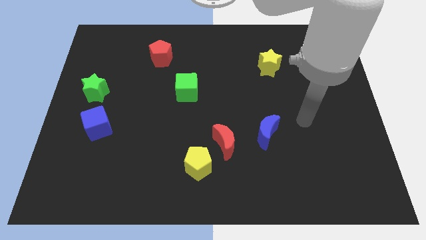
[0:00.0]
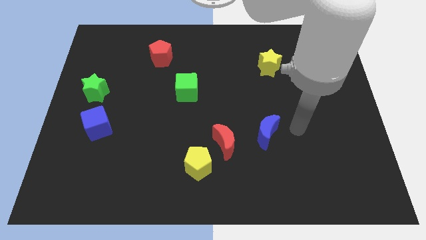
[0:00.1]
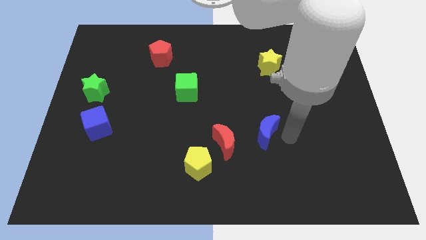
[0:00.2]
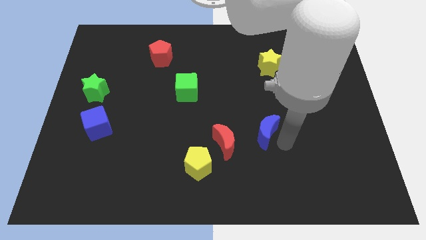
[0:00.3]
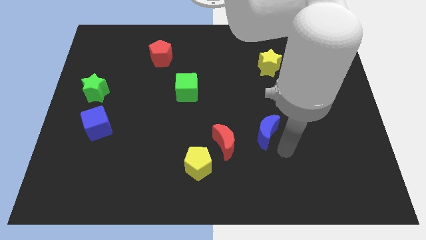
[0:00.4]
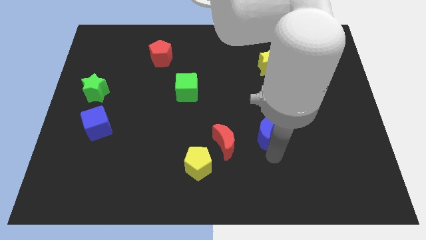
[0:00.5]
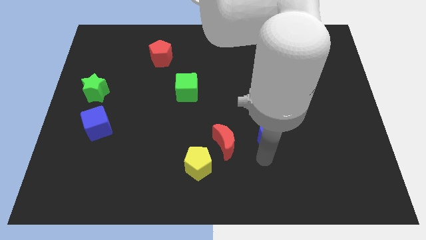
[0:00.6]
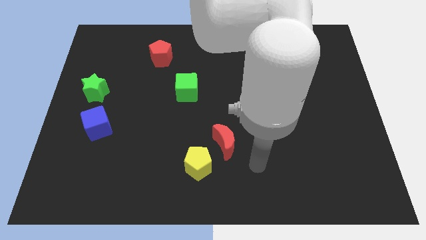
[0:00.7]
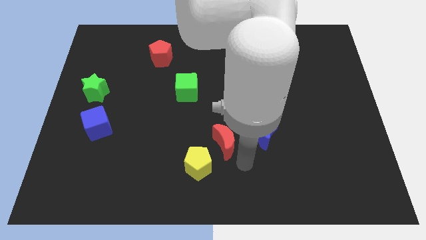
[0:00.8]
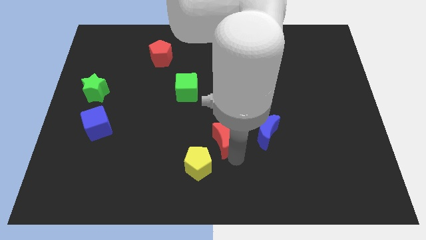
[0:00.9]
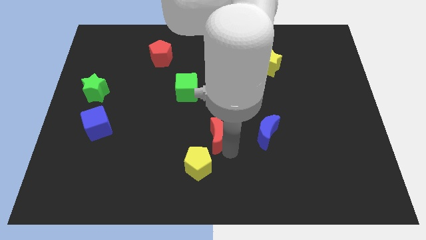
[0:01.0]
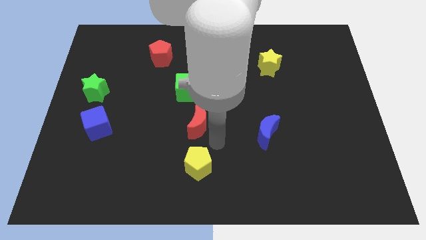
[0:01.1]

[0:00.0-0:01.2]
separate the yellow pentagon from the red moon

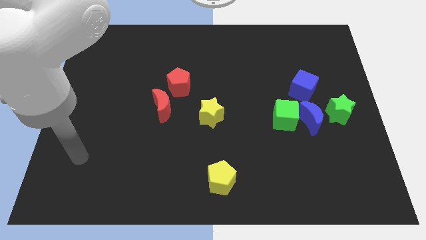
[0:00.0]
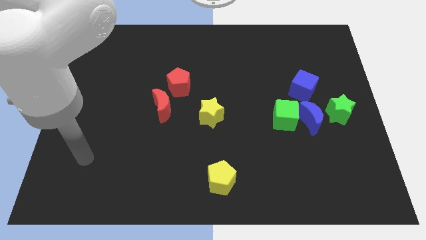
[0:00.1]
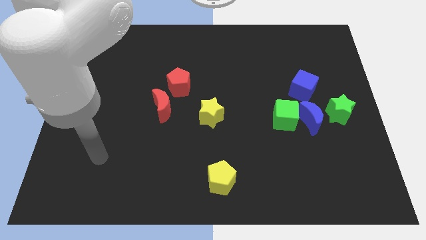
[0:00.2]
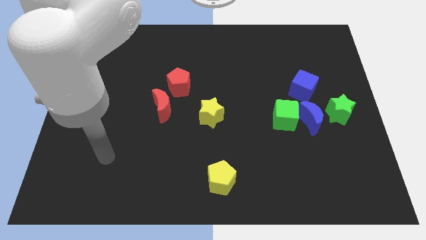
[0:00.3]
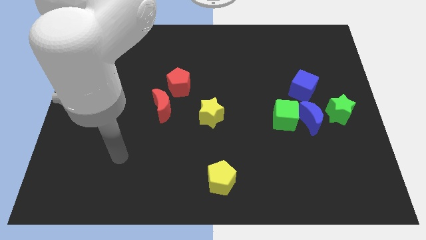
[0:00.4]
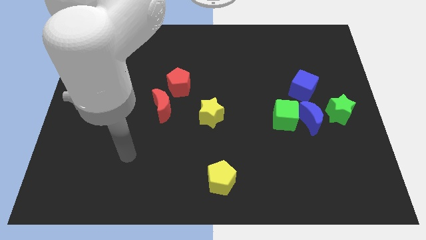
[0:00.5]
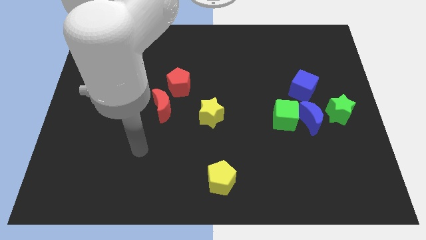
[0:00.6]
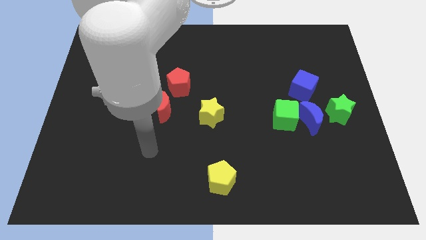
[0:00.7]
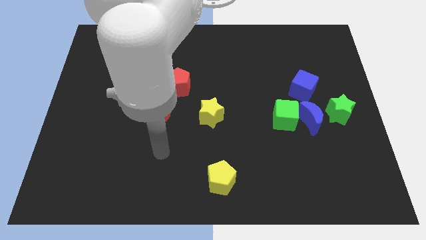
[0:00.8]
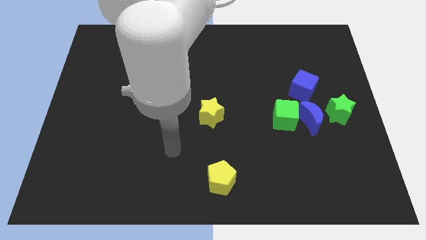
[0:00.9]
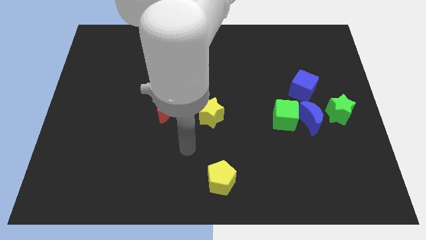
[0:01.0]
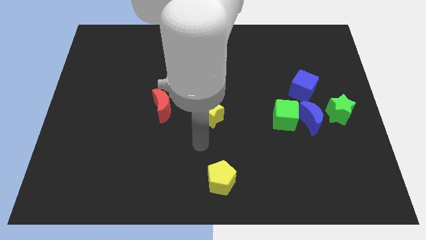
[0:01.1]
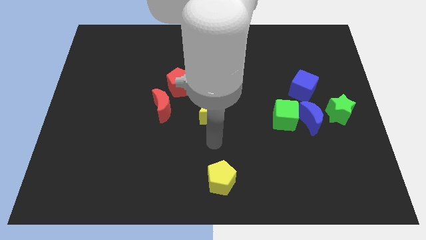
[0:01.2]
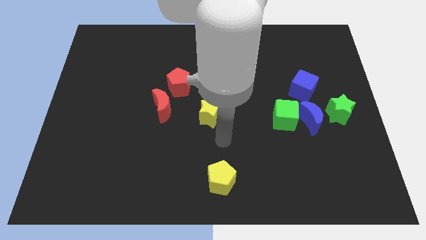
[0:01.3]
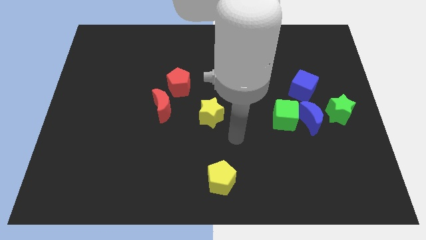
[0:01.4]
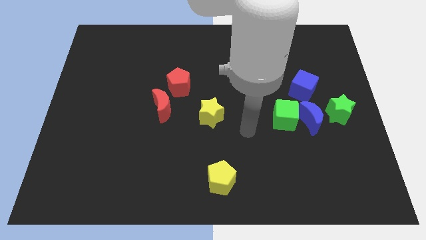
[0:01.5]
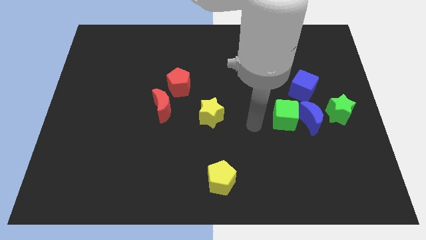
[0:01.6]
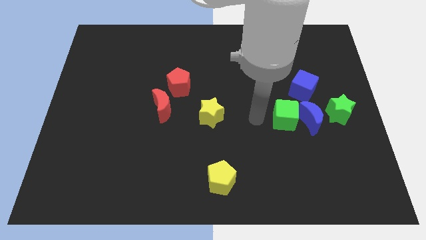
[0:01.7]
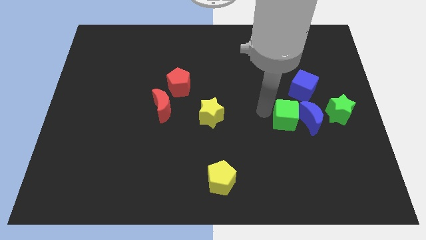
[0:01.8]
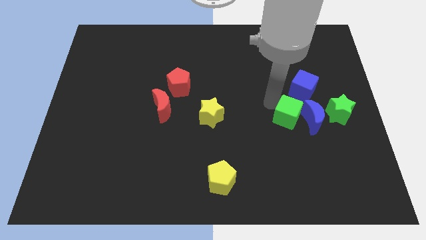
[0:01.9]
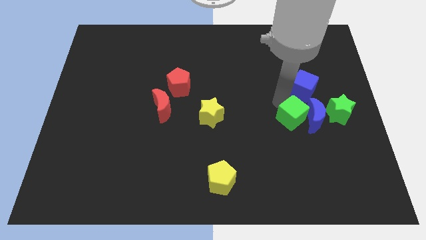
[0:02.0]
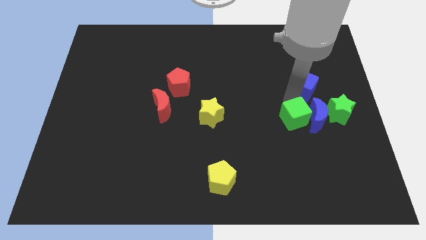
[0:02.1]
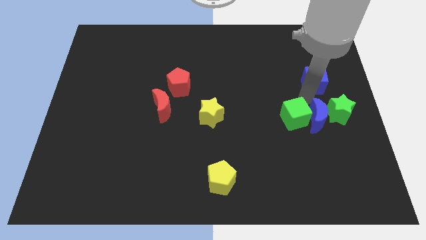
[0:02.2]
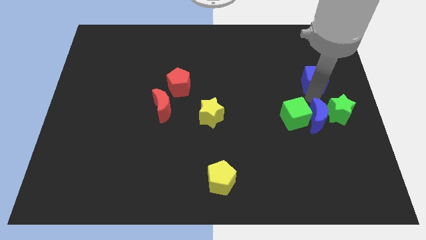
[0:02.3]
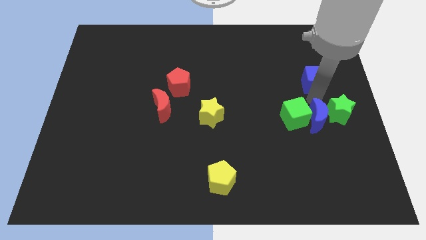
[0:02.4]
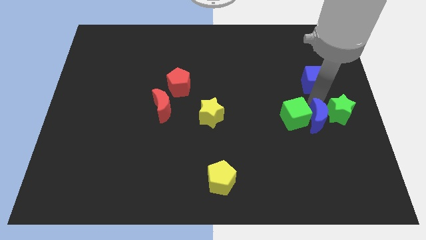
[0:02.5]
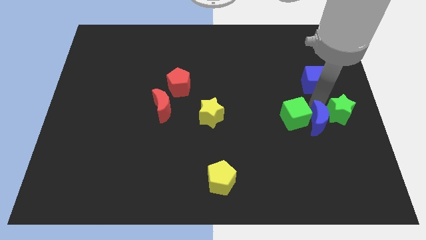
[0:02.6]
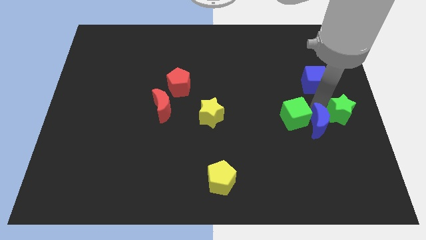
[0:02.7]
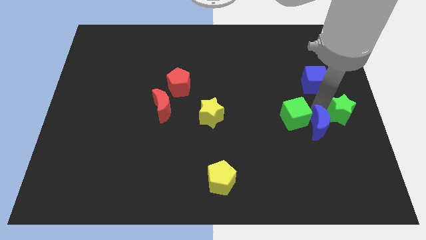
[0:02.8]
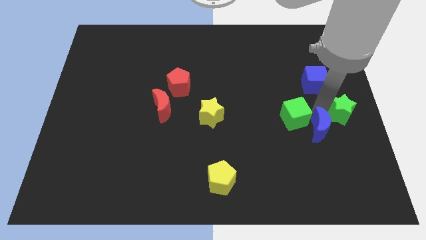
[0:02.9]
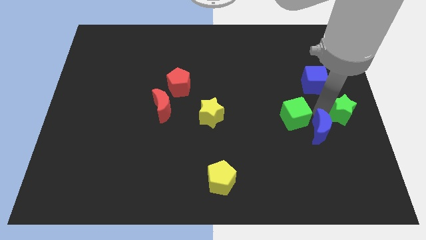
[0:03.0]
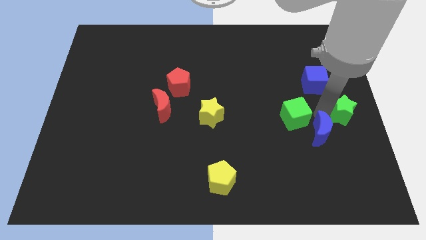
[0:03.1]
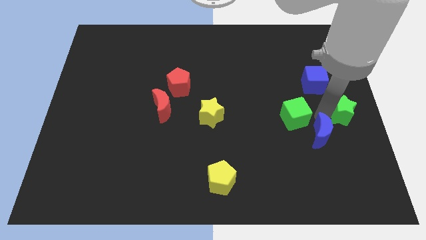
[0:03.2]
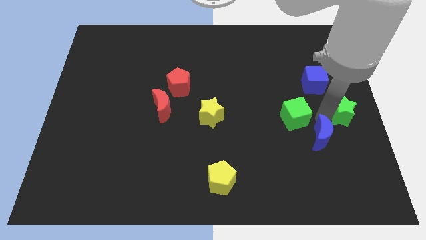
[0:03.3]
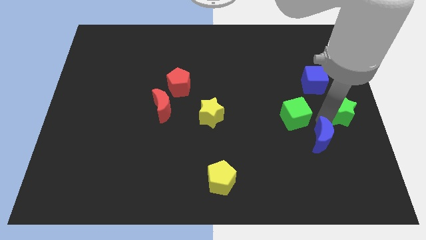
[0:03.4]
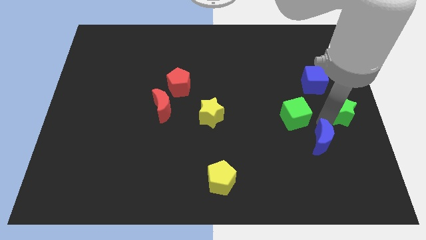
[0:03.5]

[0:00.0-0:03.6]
separate the blue moon from the group of blocks

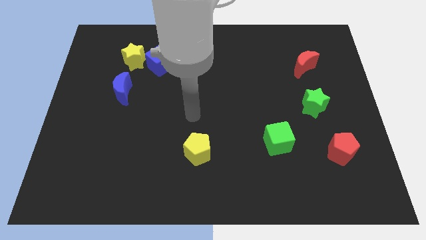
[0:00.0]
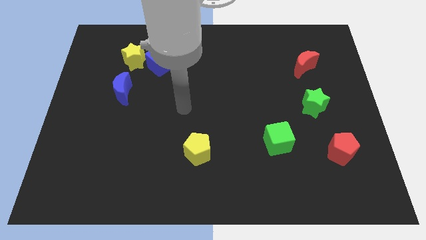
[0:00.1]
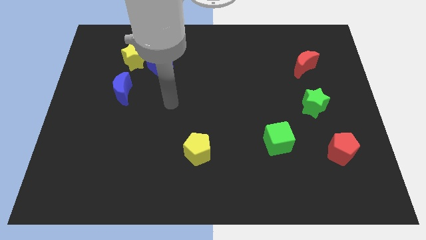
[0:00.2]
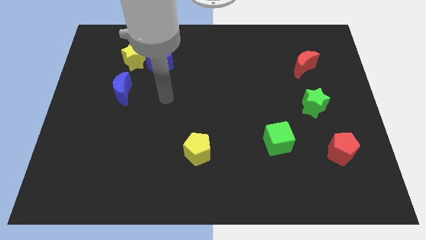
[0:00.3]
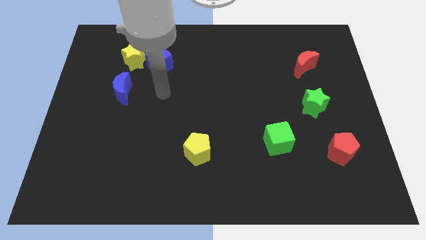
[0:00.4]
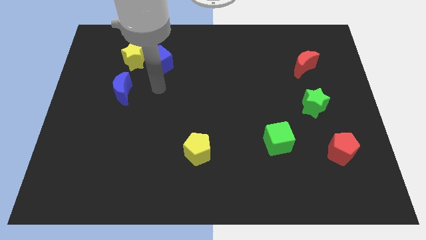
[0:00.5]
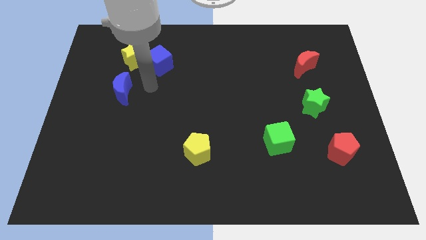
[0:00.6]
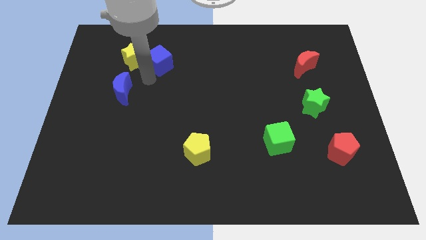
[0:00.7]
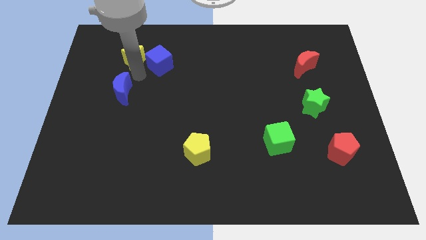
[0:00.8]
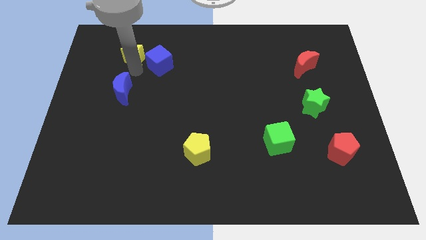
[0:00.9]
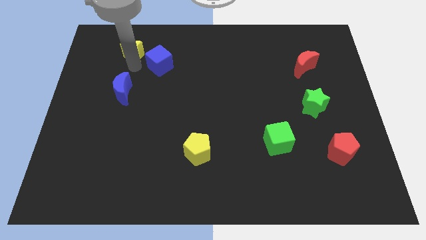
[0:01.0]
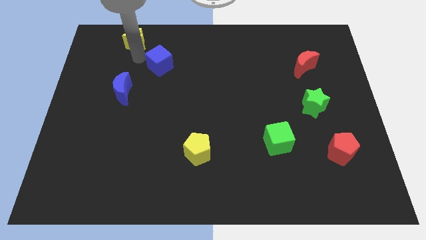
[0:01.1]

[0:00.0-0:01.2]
pull the blue cube apart from the yellow star

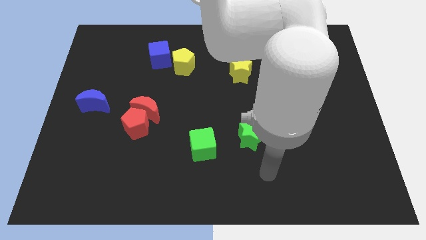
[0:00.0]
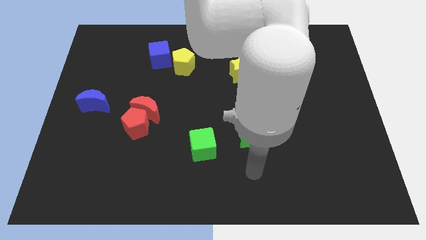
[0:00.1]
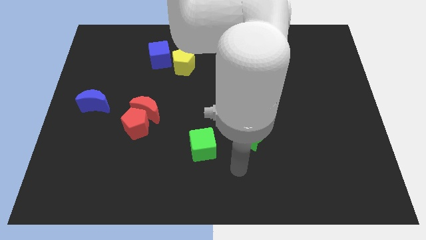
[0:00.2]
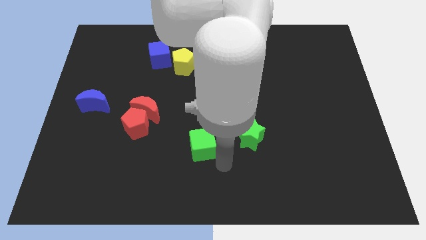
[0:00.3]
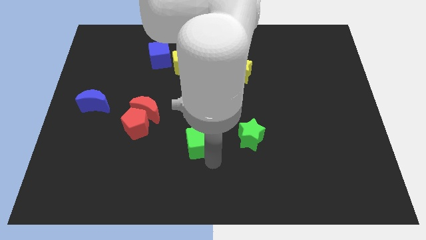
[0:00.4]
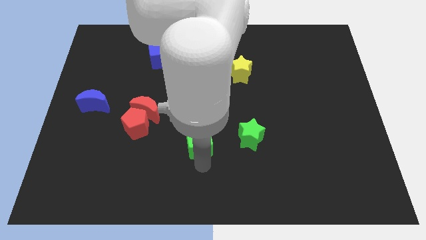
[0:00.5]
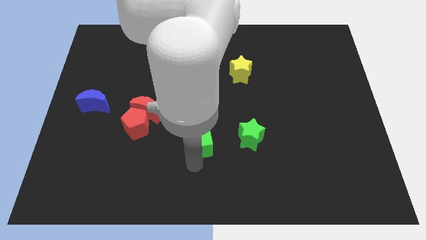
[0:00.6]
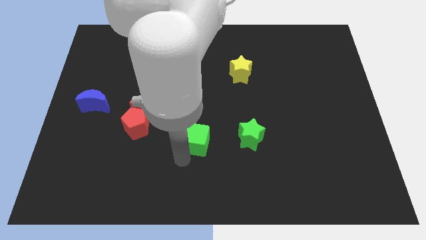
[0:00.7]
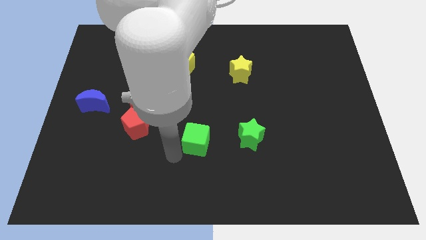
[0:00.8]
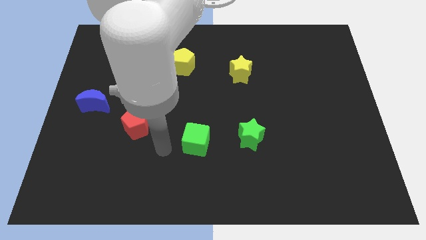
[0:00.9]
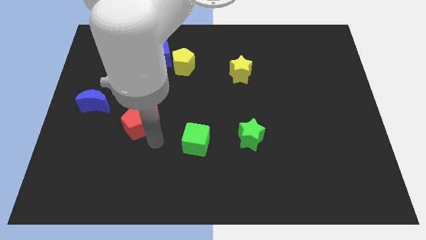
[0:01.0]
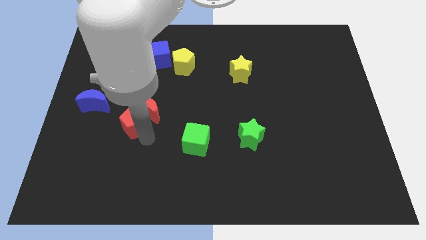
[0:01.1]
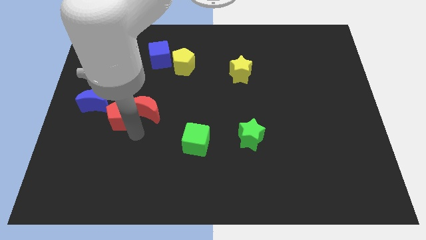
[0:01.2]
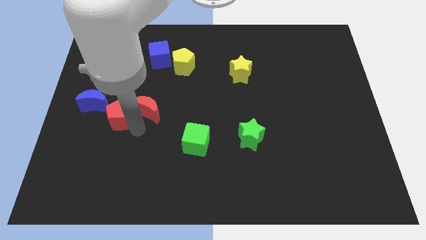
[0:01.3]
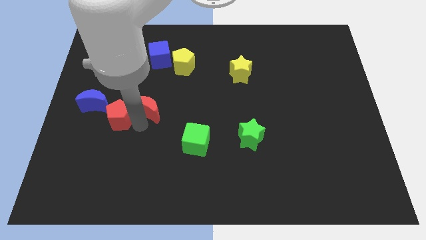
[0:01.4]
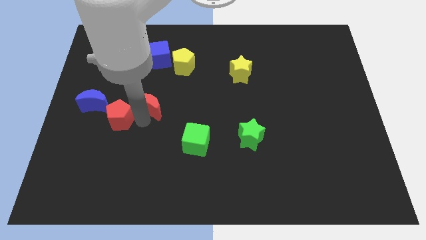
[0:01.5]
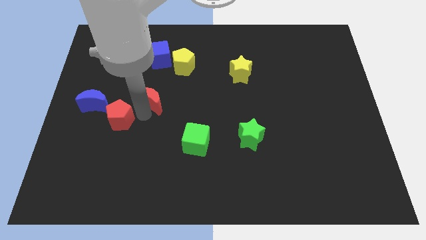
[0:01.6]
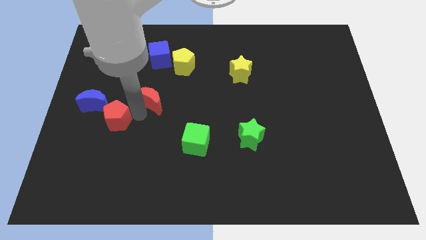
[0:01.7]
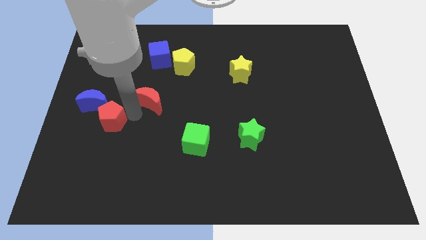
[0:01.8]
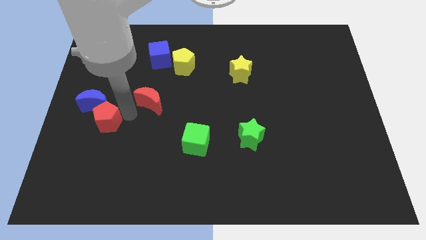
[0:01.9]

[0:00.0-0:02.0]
separate the red moon from the red pentagon

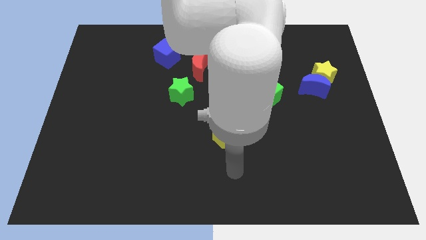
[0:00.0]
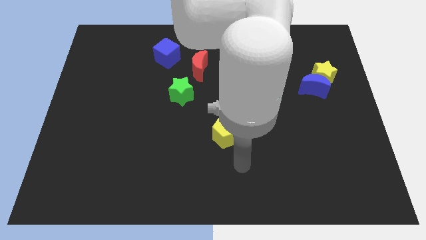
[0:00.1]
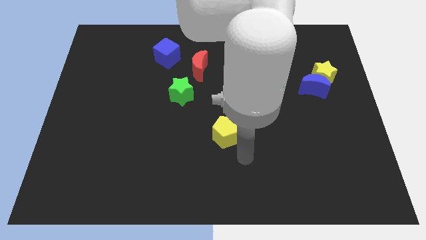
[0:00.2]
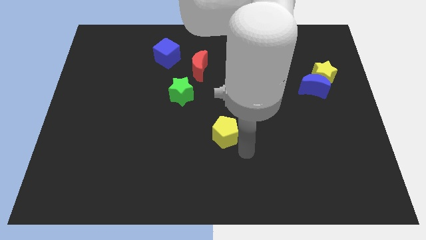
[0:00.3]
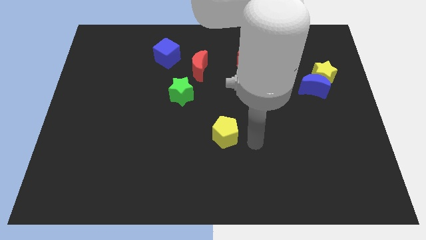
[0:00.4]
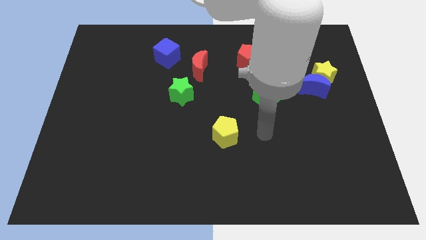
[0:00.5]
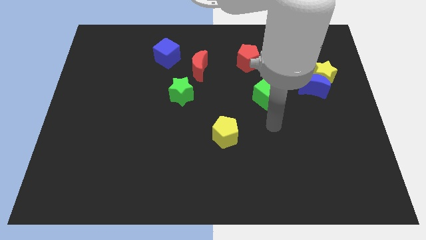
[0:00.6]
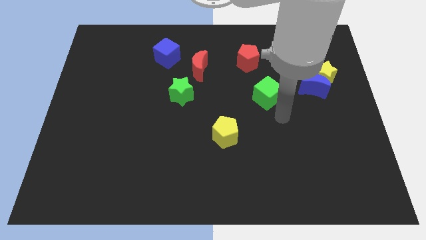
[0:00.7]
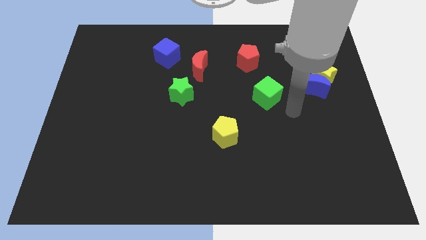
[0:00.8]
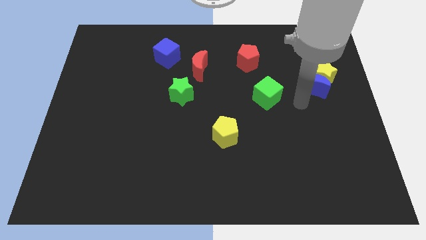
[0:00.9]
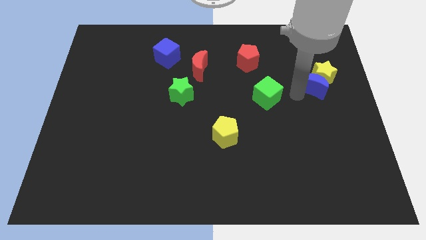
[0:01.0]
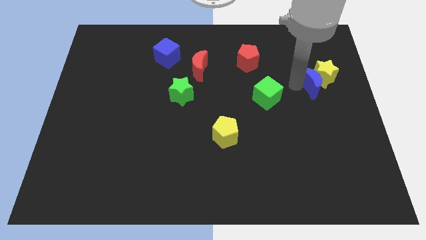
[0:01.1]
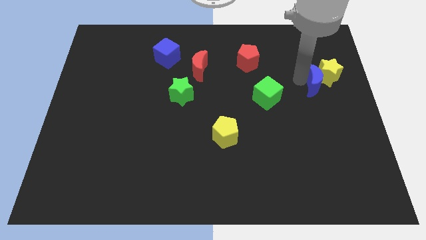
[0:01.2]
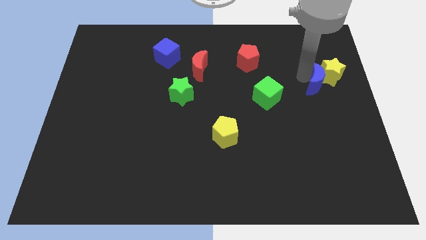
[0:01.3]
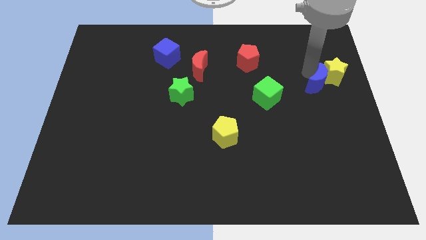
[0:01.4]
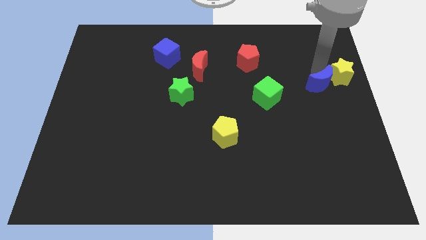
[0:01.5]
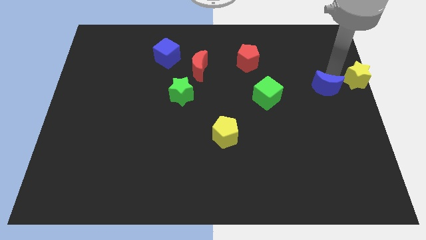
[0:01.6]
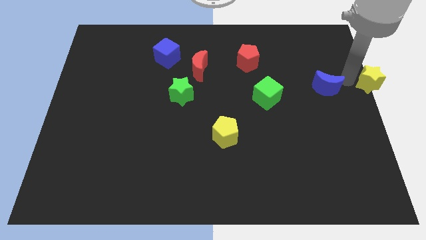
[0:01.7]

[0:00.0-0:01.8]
pull the blue moon apart from the yellow star
